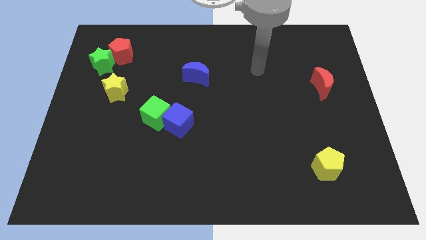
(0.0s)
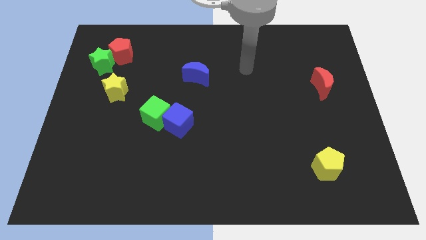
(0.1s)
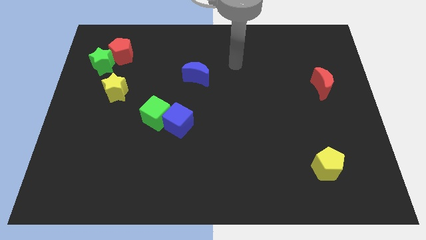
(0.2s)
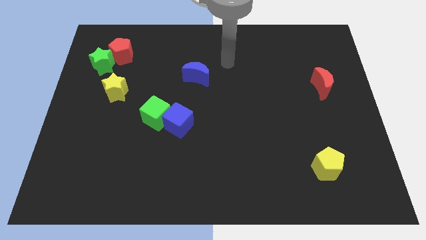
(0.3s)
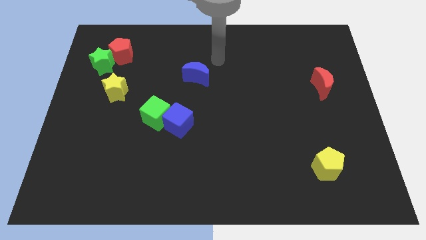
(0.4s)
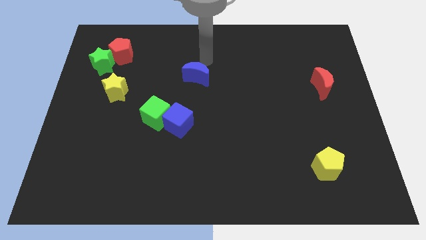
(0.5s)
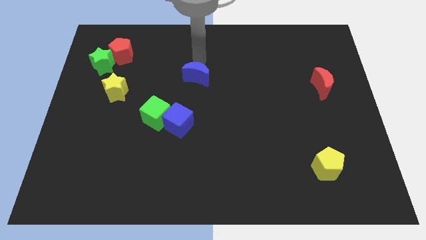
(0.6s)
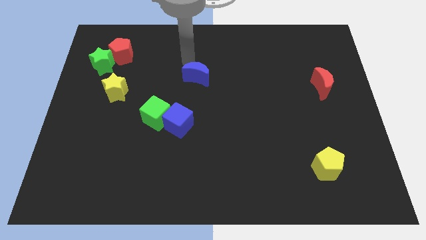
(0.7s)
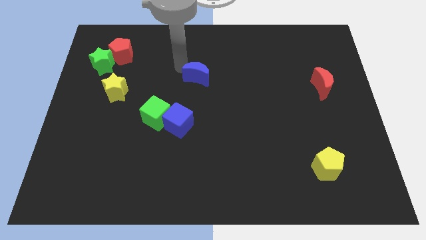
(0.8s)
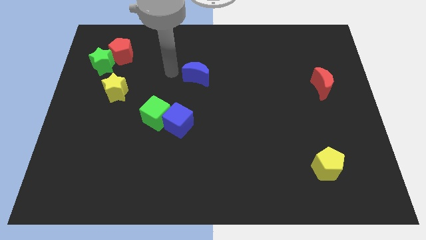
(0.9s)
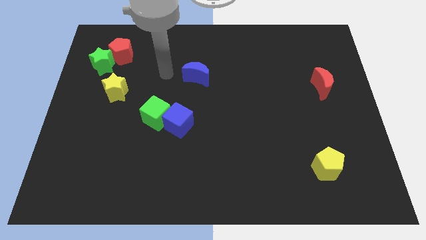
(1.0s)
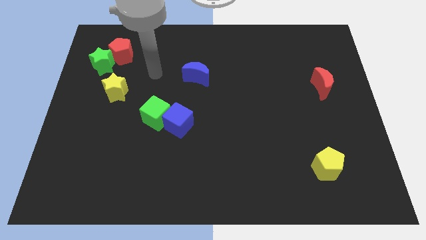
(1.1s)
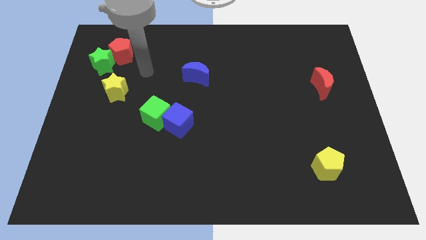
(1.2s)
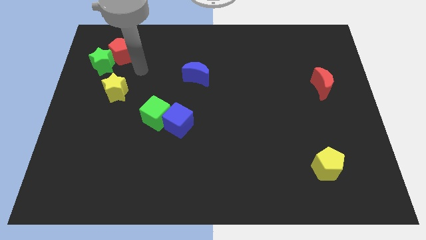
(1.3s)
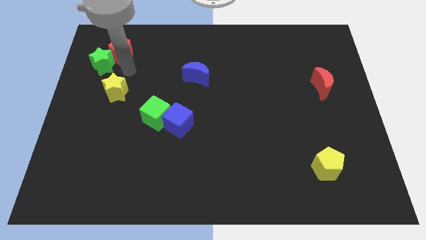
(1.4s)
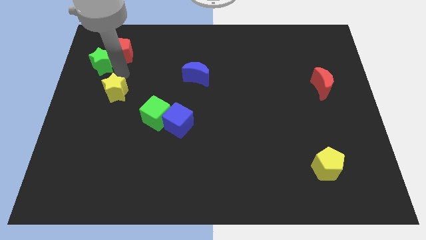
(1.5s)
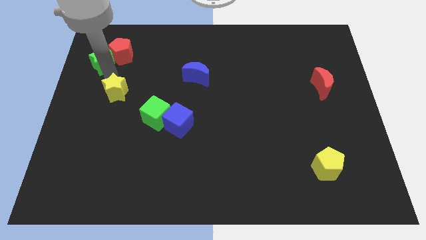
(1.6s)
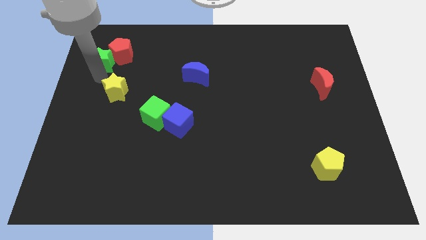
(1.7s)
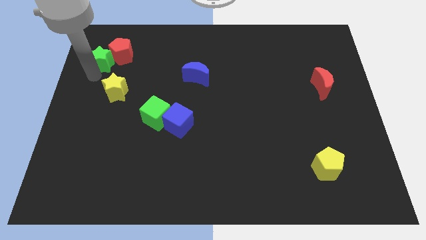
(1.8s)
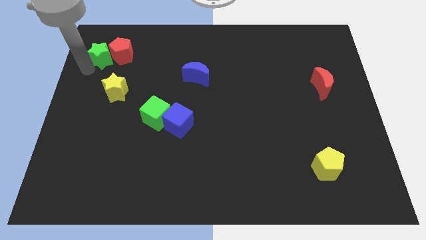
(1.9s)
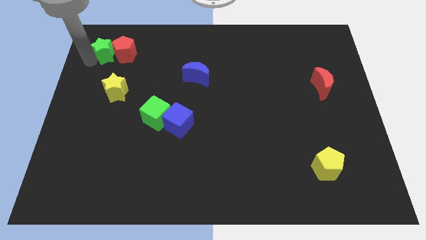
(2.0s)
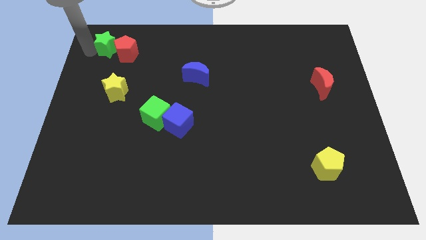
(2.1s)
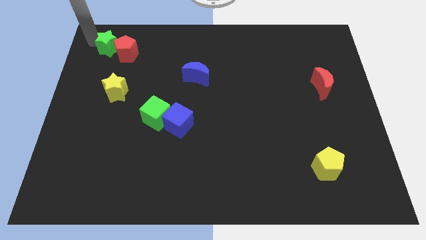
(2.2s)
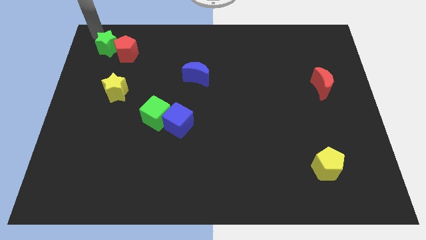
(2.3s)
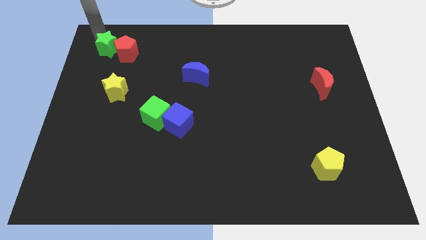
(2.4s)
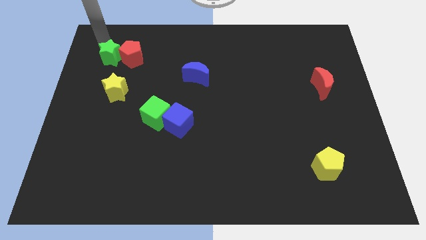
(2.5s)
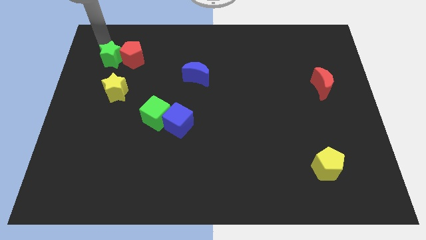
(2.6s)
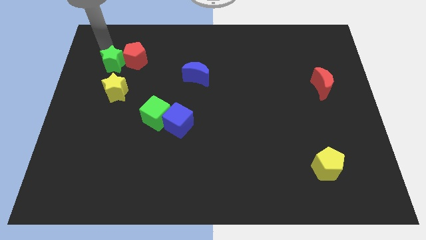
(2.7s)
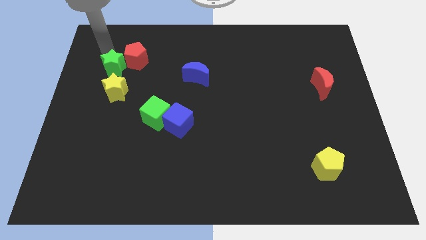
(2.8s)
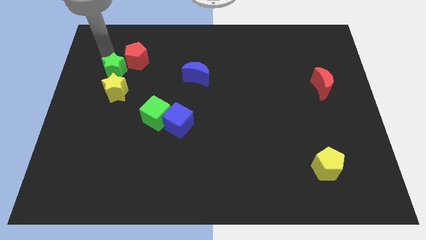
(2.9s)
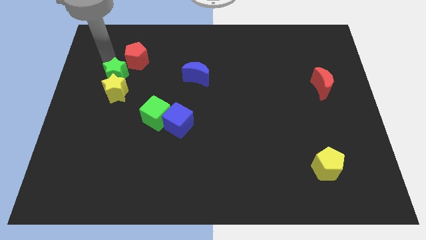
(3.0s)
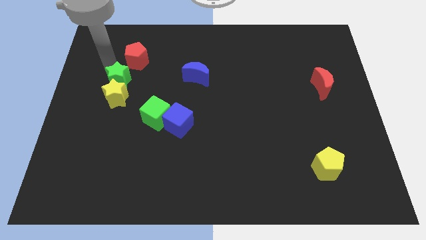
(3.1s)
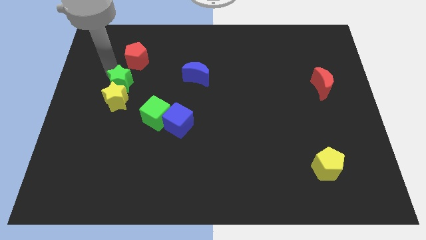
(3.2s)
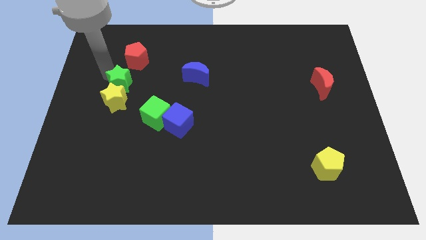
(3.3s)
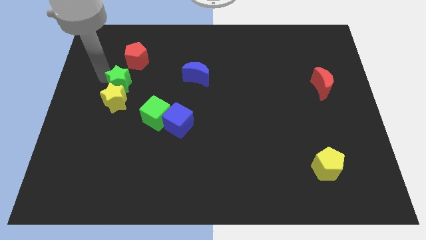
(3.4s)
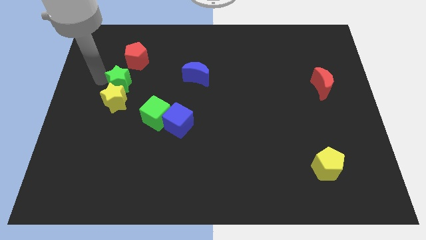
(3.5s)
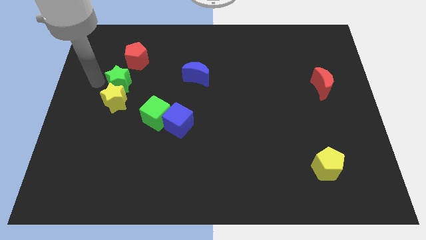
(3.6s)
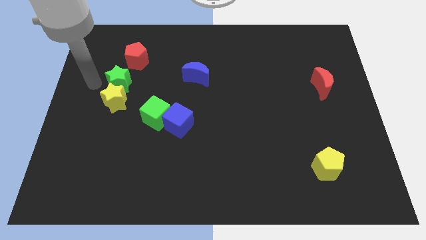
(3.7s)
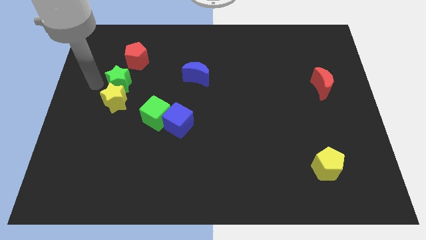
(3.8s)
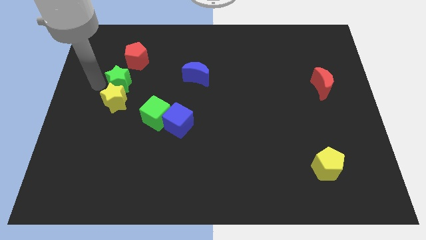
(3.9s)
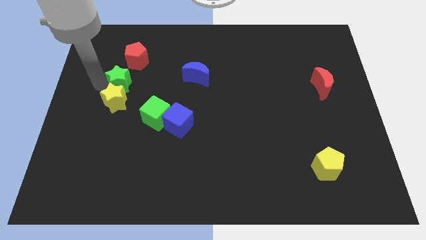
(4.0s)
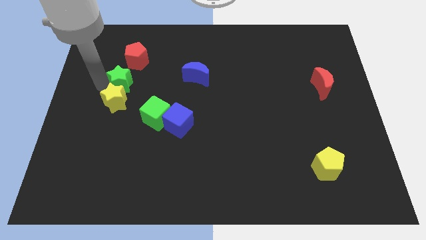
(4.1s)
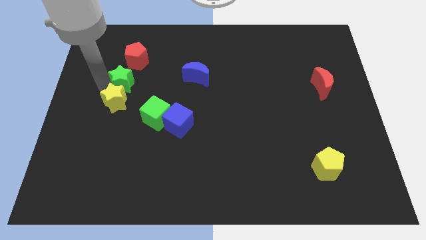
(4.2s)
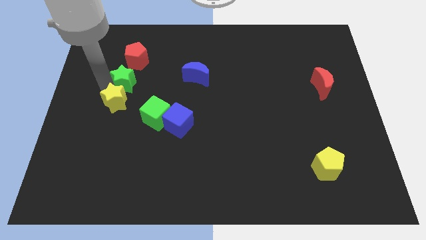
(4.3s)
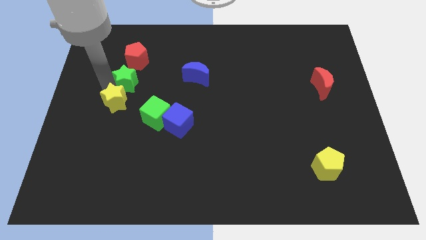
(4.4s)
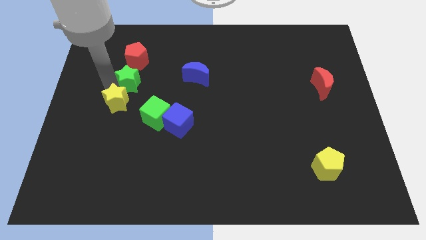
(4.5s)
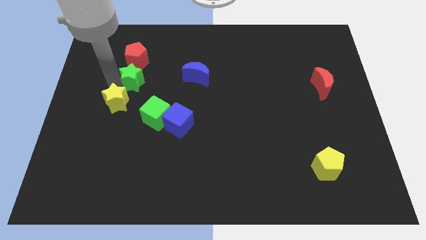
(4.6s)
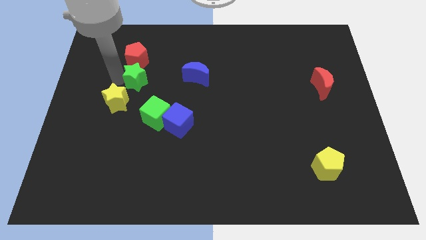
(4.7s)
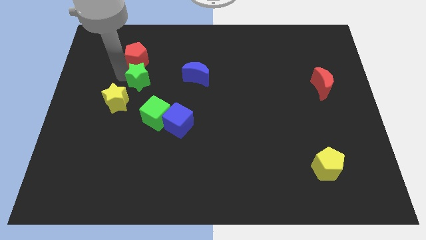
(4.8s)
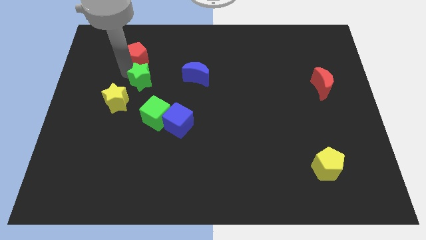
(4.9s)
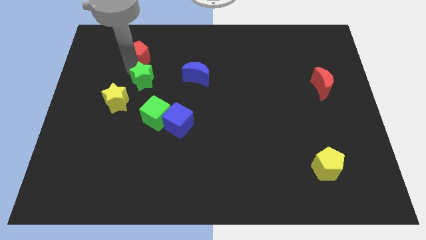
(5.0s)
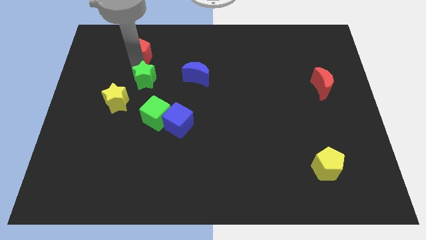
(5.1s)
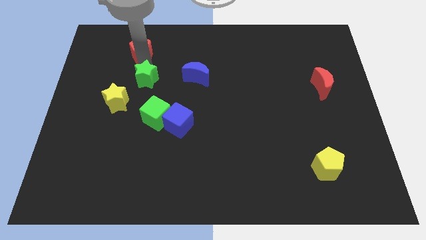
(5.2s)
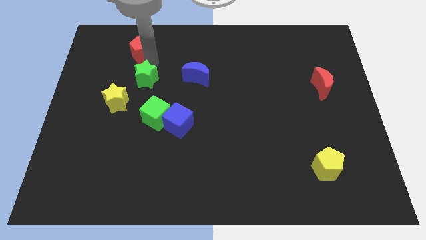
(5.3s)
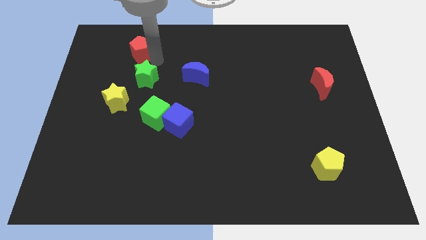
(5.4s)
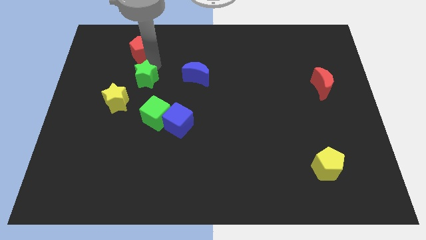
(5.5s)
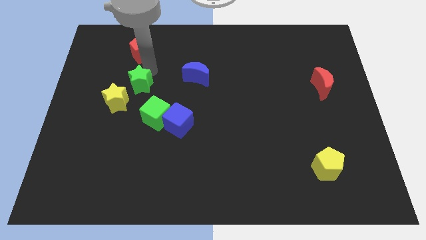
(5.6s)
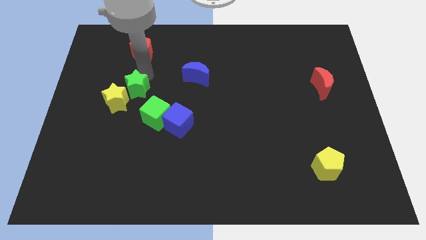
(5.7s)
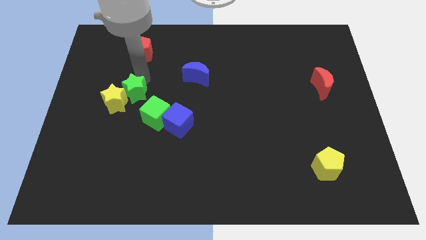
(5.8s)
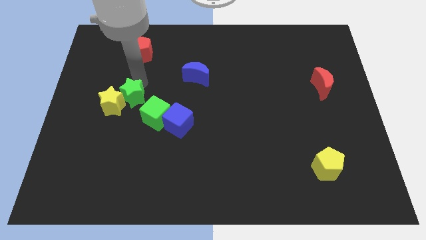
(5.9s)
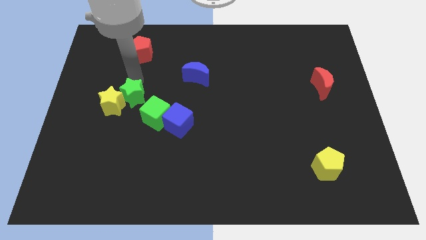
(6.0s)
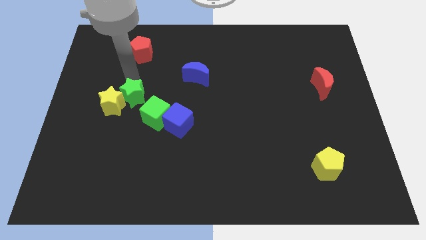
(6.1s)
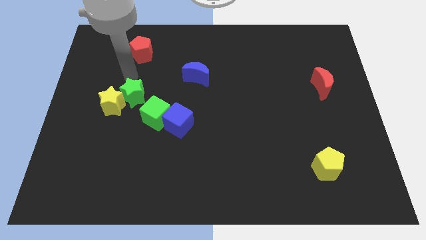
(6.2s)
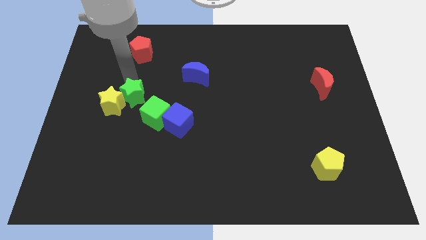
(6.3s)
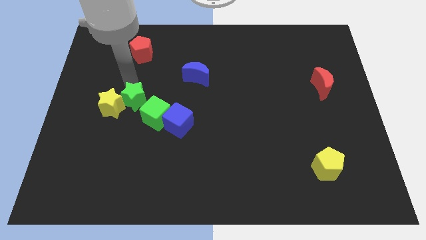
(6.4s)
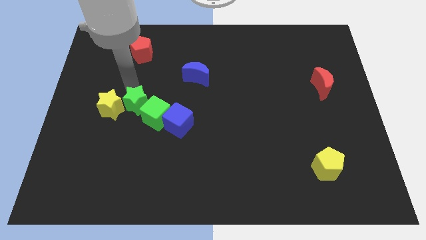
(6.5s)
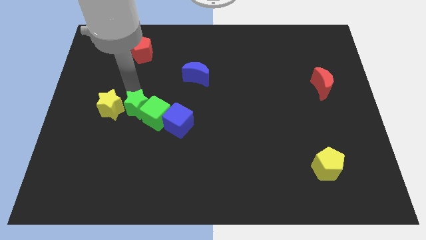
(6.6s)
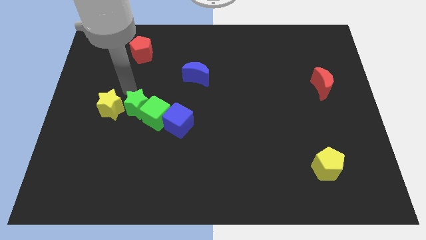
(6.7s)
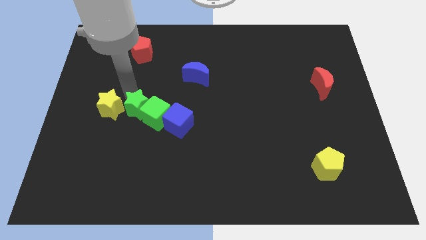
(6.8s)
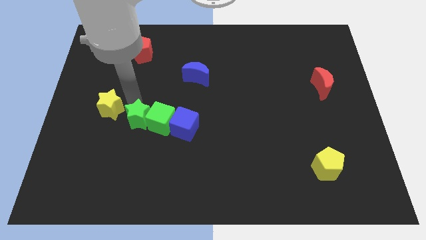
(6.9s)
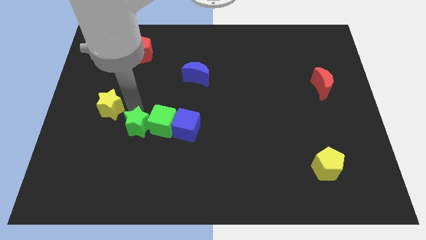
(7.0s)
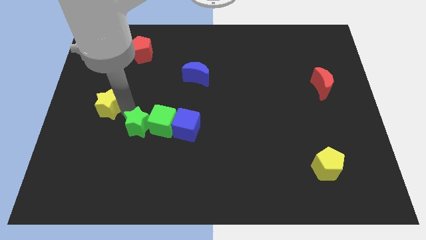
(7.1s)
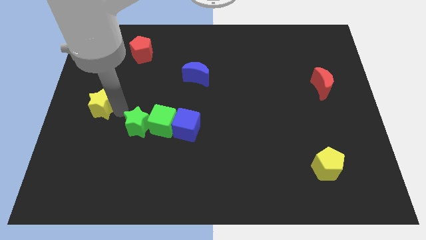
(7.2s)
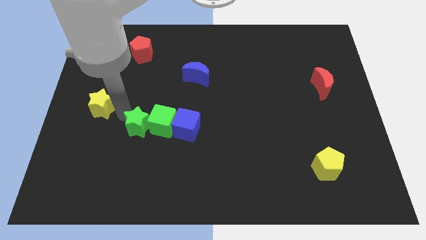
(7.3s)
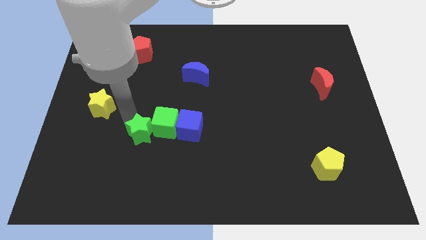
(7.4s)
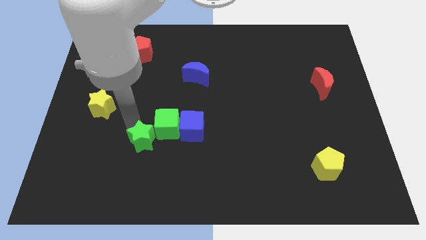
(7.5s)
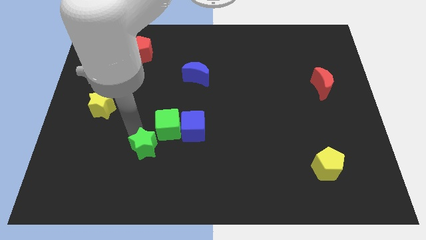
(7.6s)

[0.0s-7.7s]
push the green star to the bottom left of the blue cube
